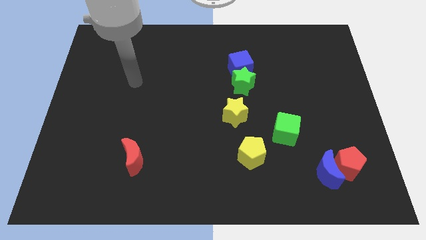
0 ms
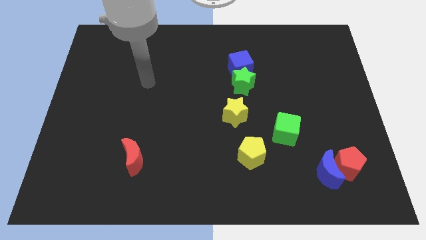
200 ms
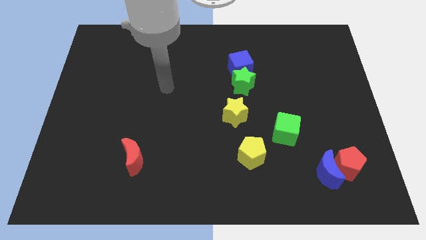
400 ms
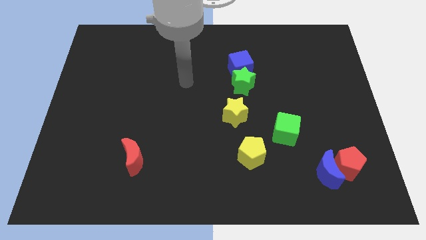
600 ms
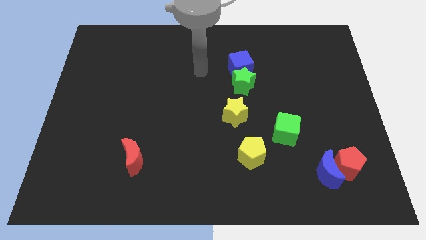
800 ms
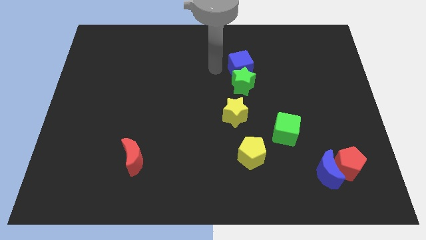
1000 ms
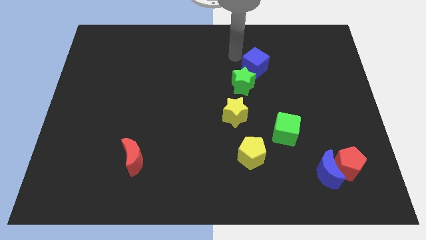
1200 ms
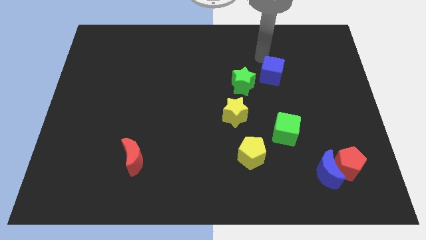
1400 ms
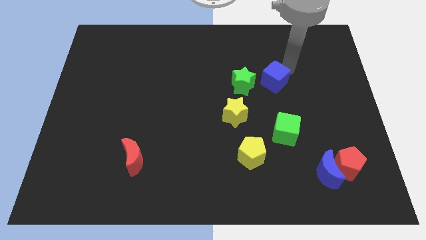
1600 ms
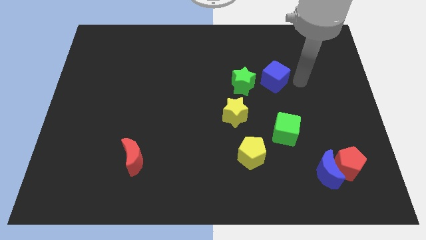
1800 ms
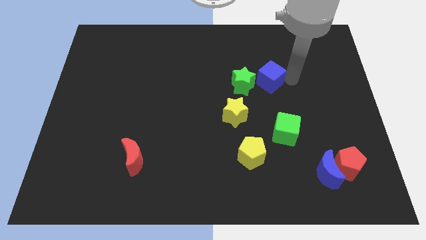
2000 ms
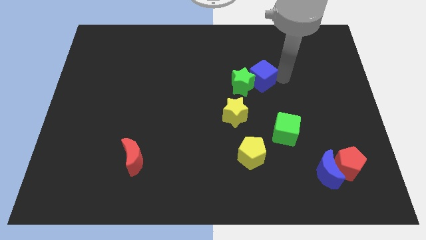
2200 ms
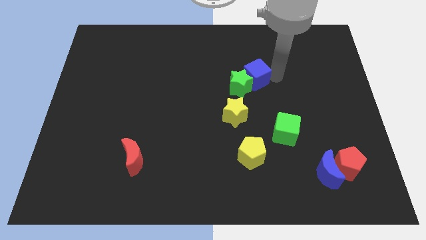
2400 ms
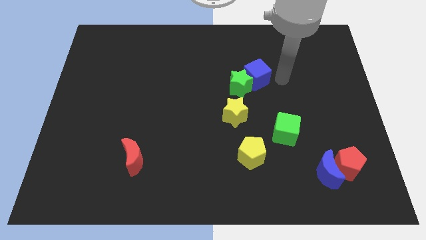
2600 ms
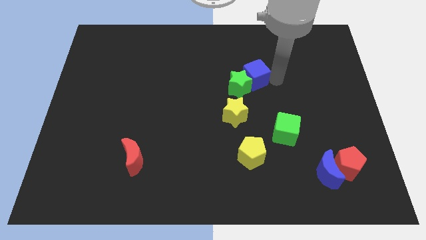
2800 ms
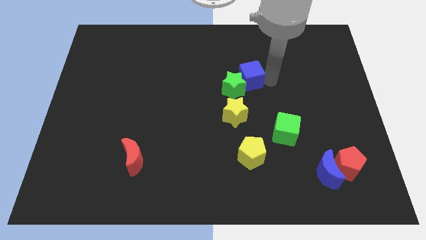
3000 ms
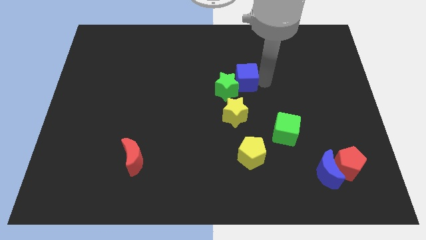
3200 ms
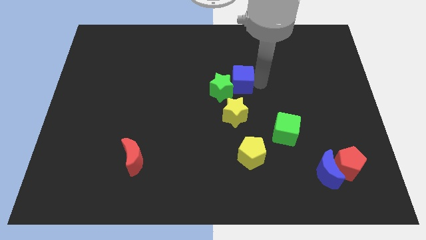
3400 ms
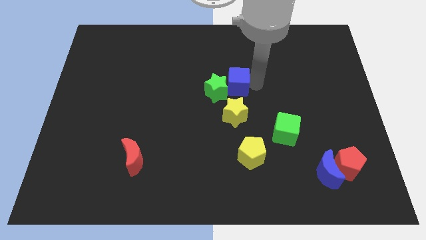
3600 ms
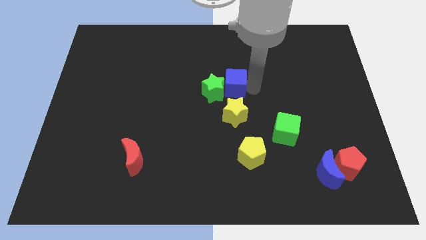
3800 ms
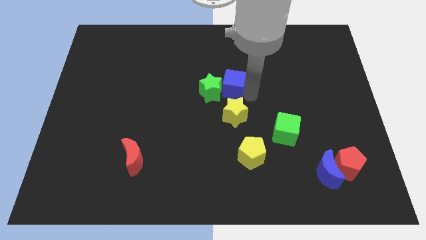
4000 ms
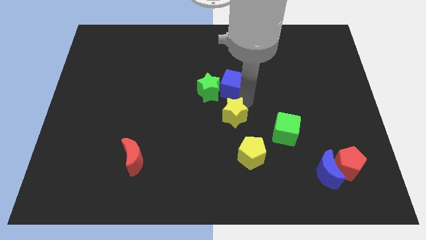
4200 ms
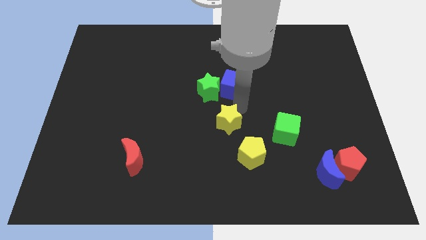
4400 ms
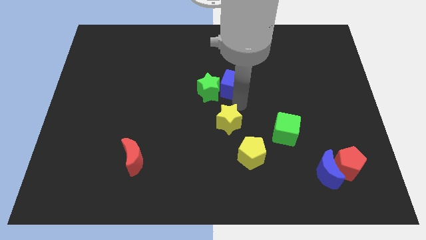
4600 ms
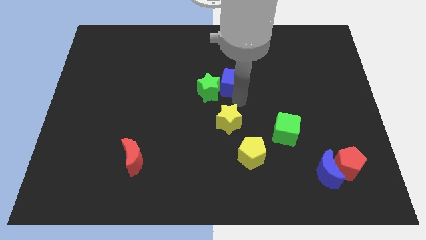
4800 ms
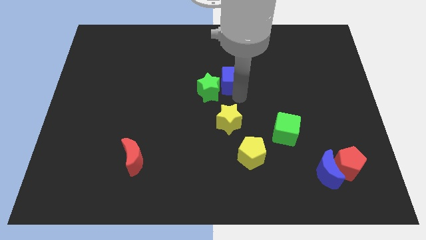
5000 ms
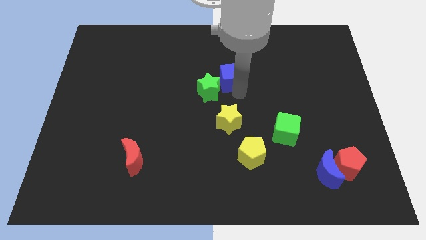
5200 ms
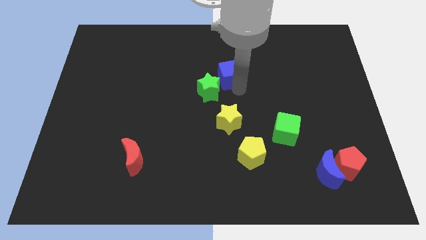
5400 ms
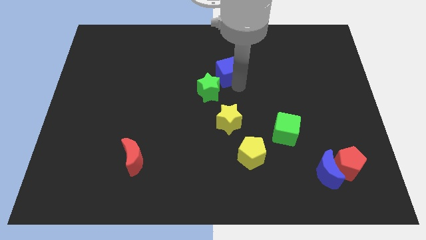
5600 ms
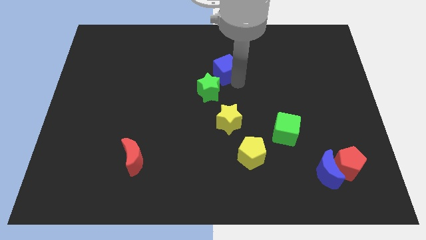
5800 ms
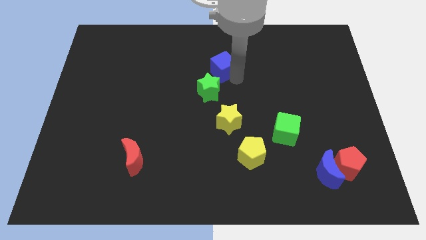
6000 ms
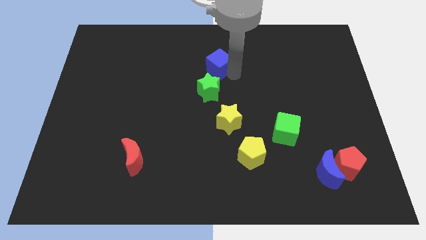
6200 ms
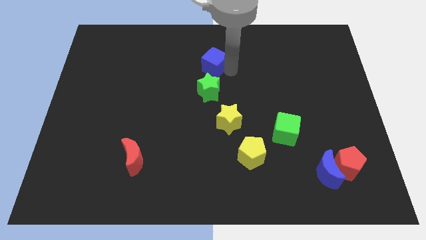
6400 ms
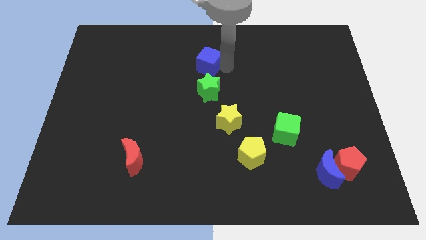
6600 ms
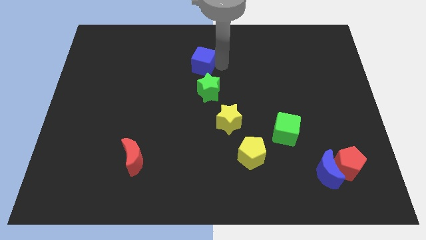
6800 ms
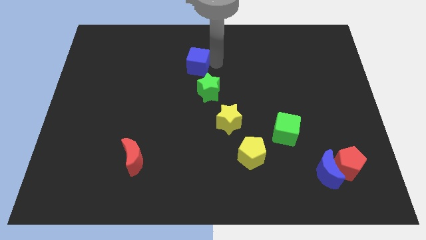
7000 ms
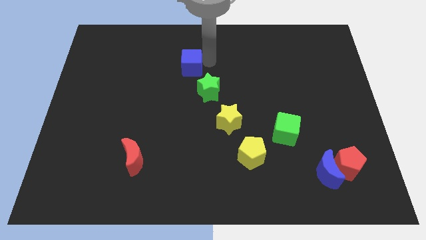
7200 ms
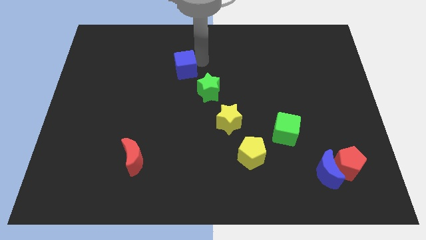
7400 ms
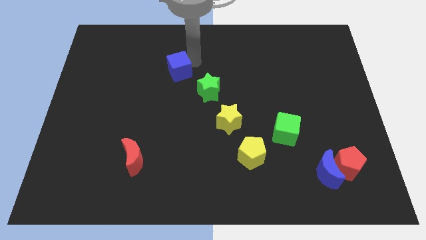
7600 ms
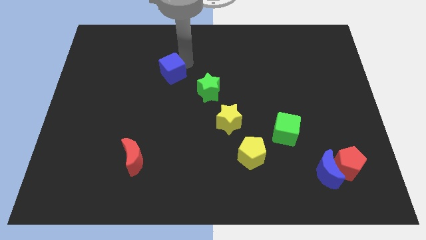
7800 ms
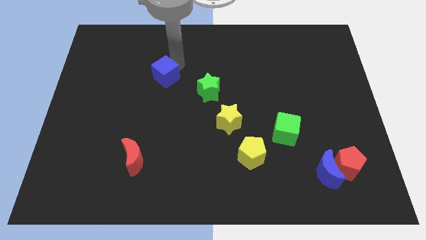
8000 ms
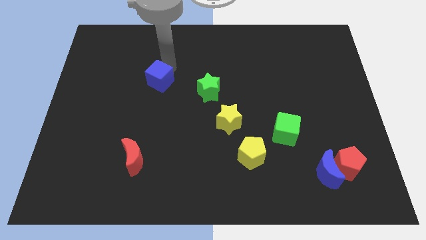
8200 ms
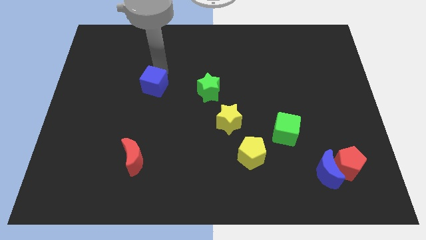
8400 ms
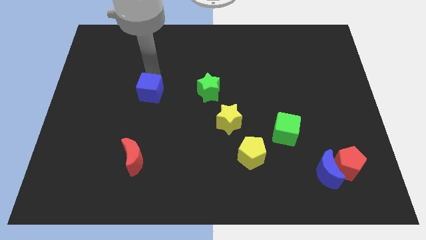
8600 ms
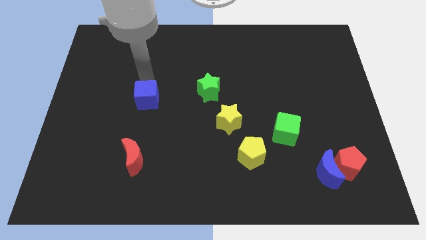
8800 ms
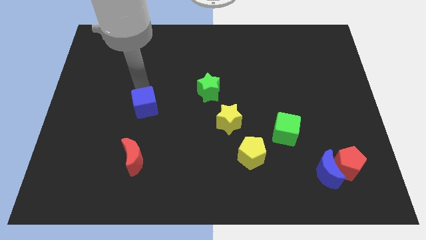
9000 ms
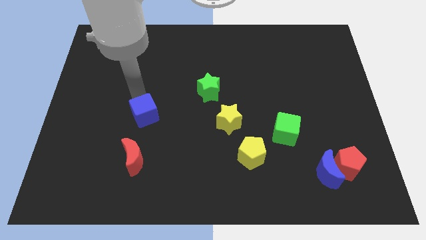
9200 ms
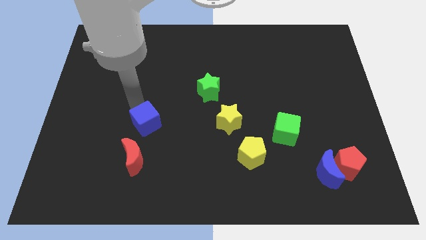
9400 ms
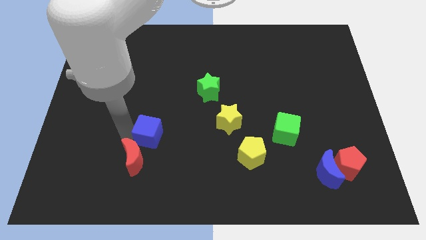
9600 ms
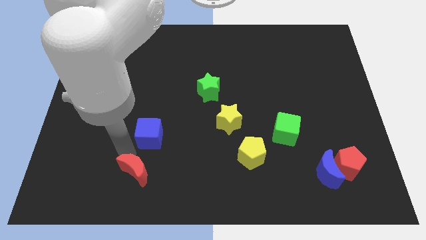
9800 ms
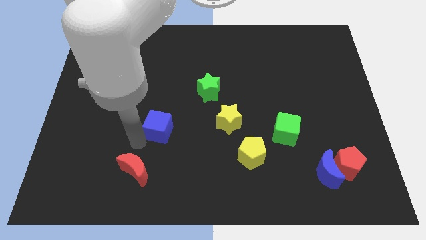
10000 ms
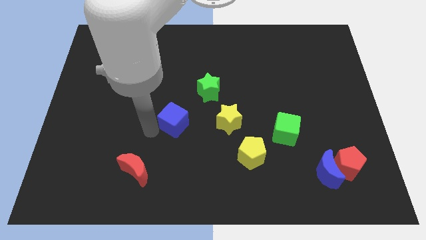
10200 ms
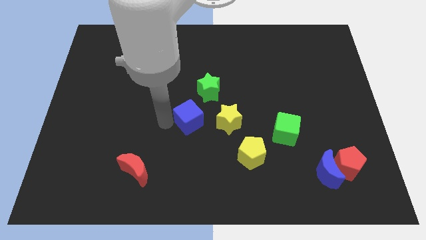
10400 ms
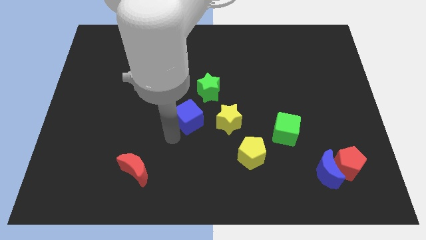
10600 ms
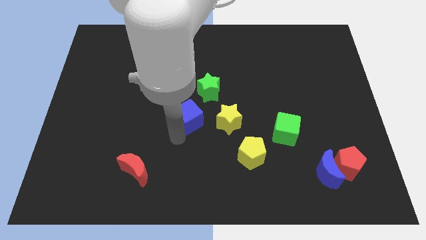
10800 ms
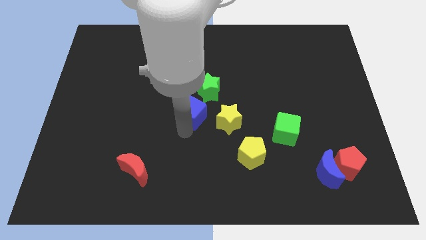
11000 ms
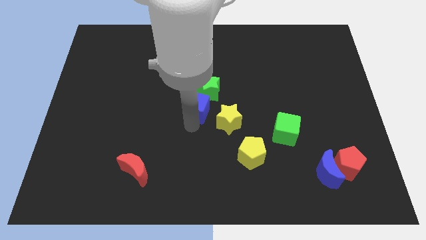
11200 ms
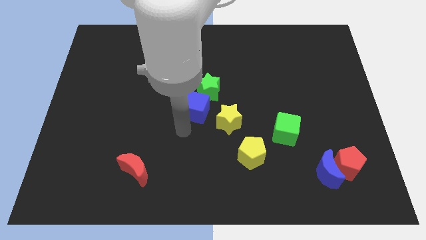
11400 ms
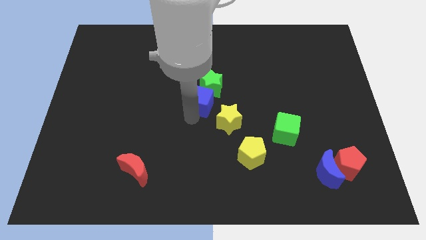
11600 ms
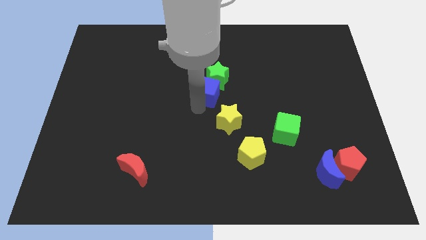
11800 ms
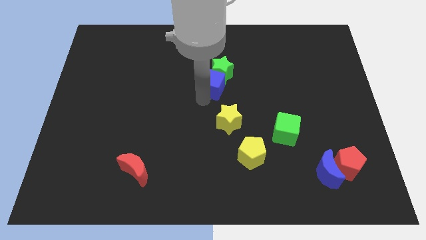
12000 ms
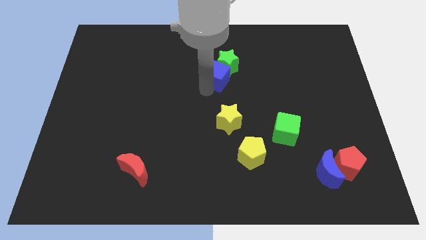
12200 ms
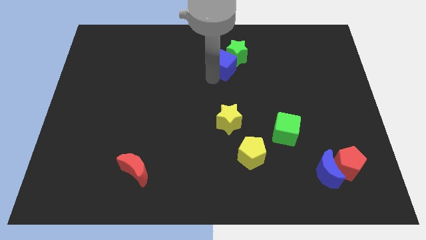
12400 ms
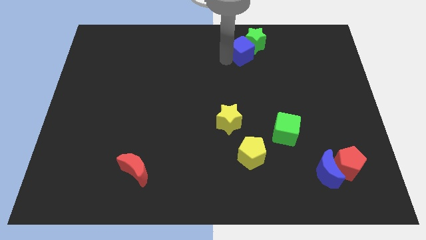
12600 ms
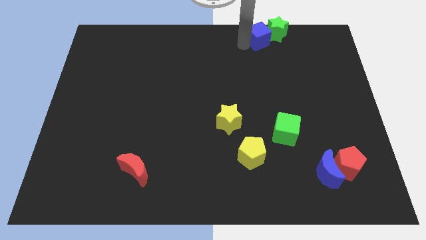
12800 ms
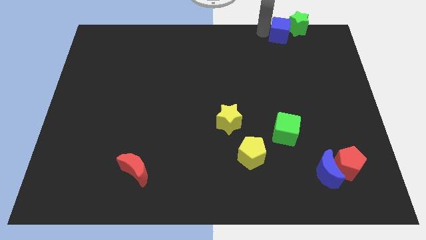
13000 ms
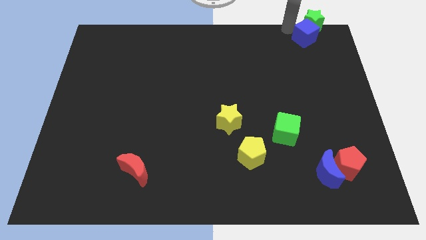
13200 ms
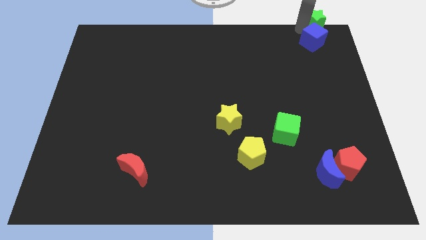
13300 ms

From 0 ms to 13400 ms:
push the blue cube to the top right of the board
